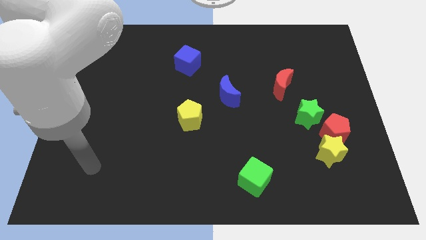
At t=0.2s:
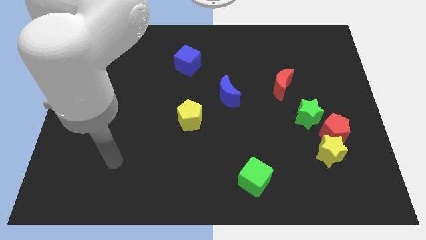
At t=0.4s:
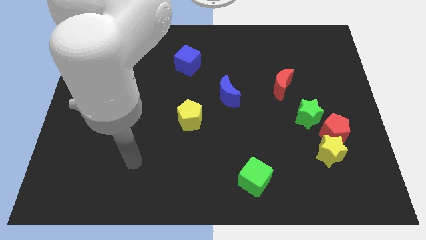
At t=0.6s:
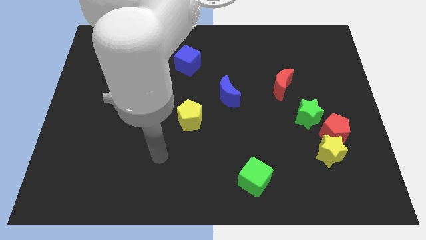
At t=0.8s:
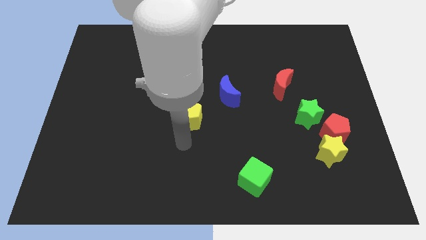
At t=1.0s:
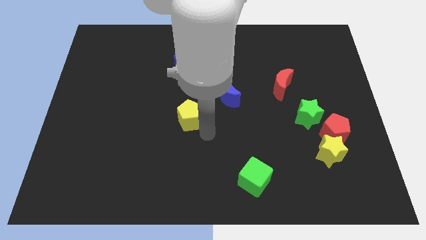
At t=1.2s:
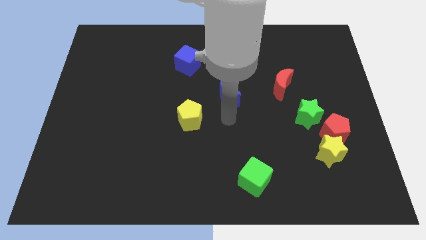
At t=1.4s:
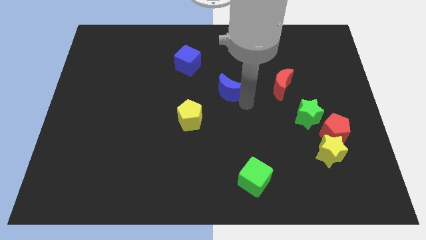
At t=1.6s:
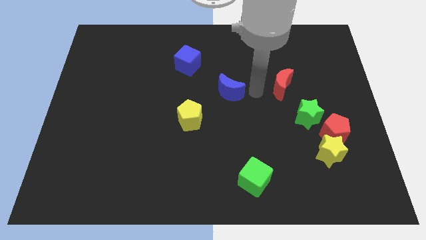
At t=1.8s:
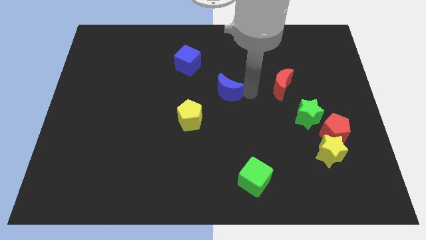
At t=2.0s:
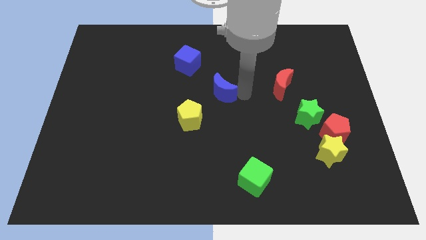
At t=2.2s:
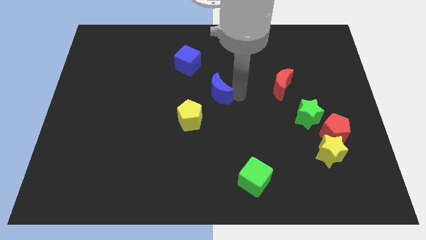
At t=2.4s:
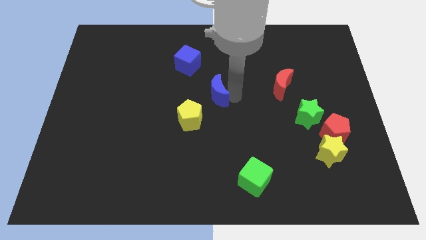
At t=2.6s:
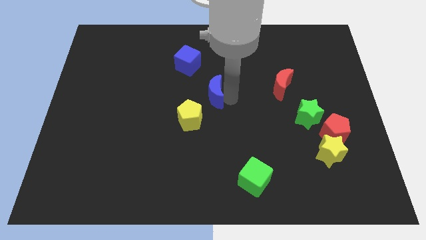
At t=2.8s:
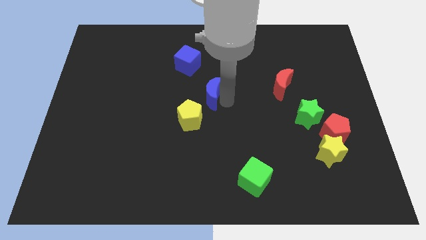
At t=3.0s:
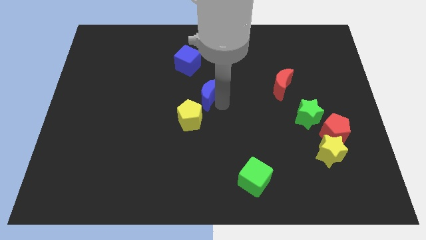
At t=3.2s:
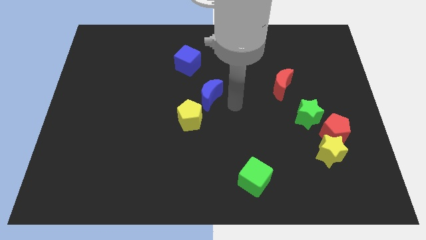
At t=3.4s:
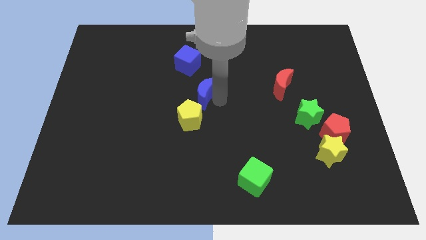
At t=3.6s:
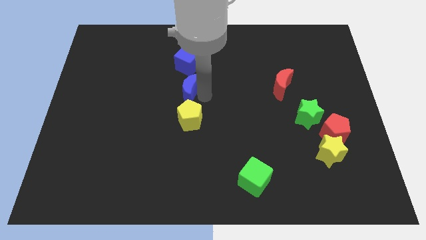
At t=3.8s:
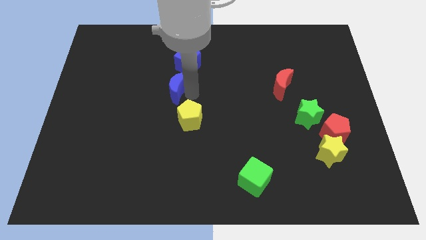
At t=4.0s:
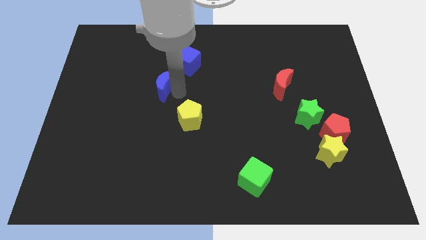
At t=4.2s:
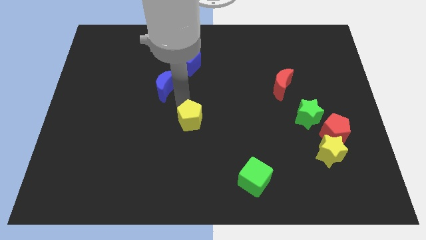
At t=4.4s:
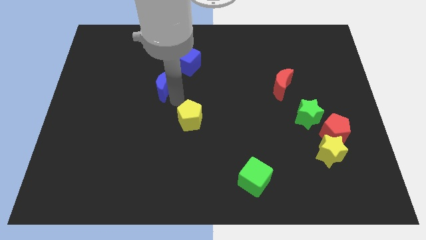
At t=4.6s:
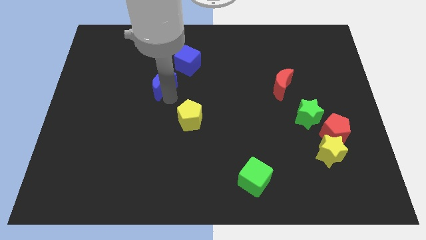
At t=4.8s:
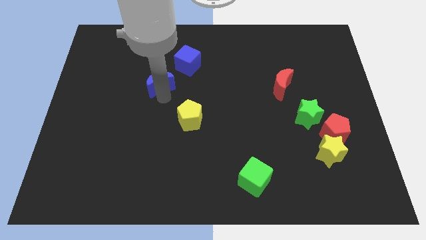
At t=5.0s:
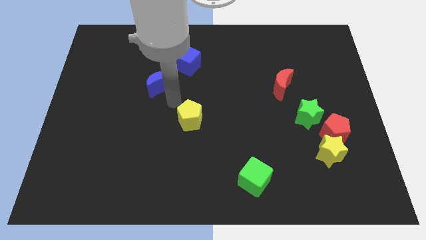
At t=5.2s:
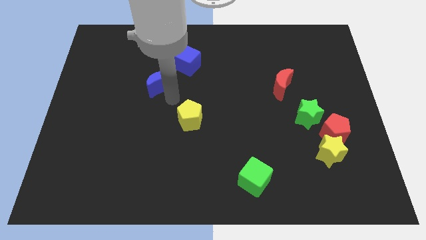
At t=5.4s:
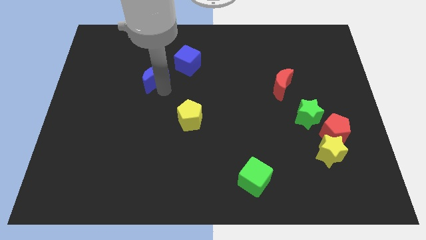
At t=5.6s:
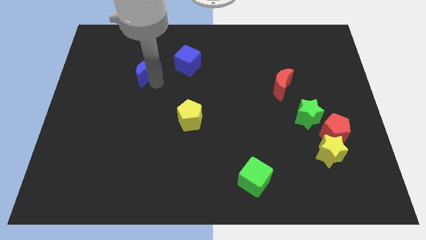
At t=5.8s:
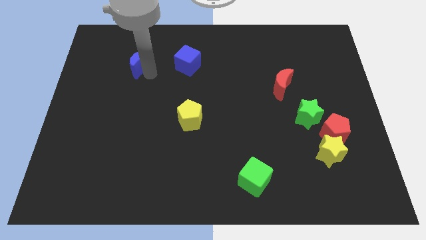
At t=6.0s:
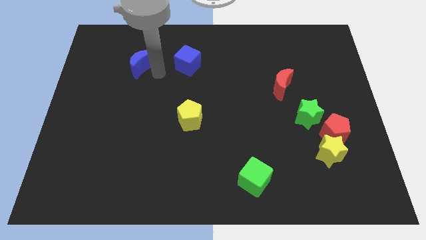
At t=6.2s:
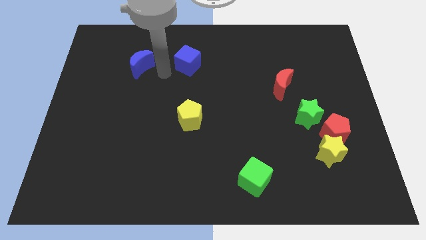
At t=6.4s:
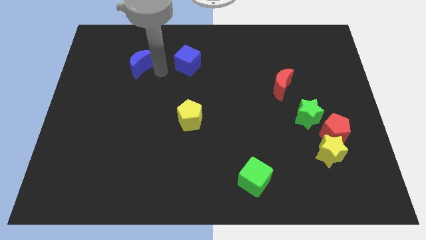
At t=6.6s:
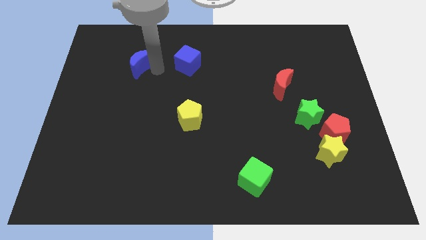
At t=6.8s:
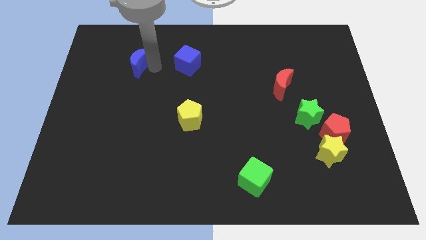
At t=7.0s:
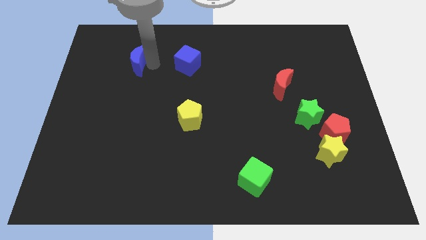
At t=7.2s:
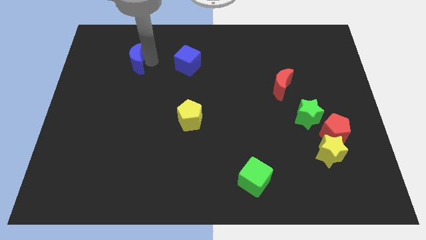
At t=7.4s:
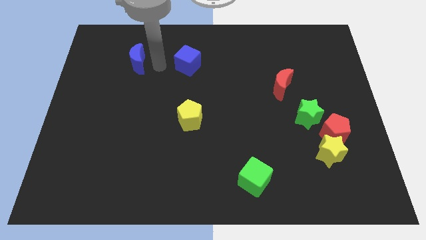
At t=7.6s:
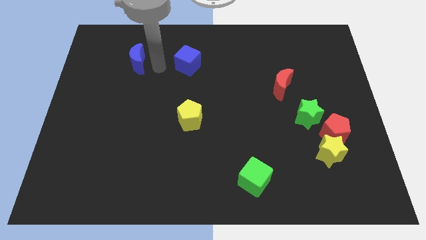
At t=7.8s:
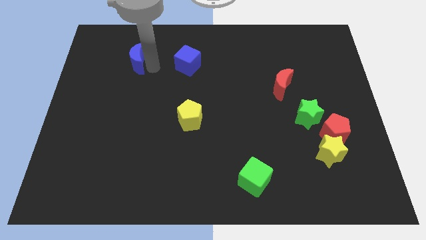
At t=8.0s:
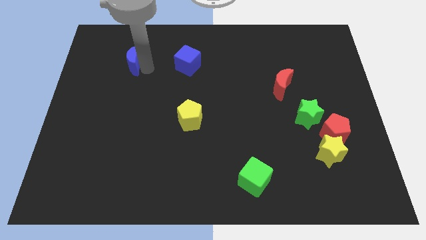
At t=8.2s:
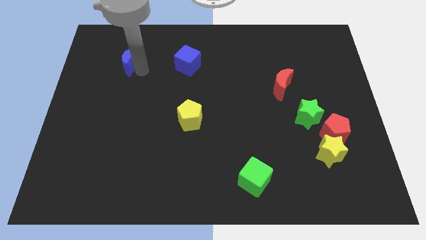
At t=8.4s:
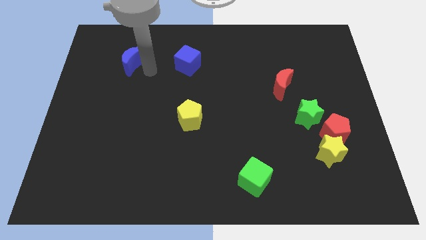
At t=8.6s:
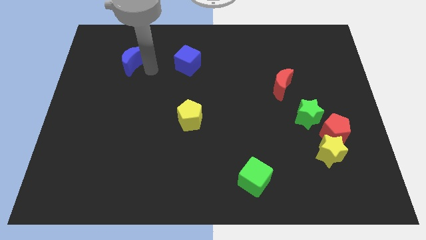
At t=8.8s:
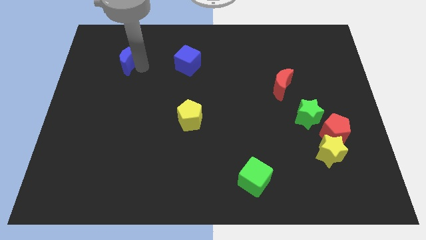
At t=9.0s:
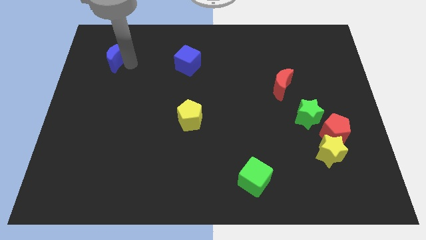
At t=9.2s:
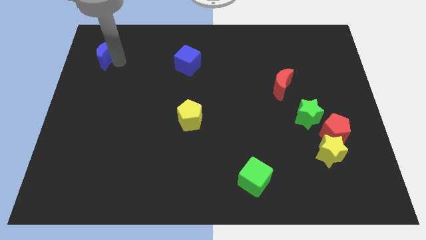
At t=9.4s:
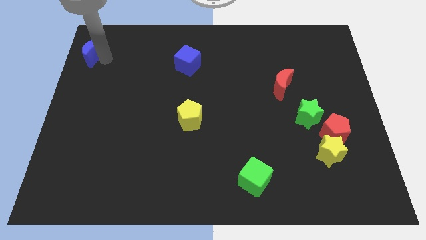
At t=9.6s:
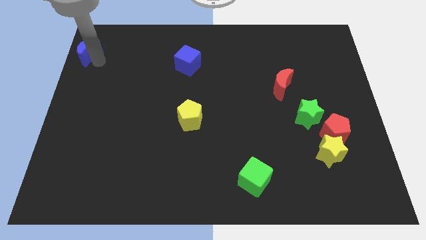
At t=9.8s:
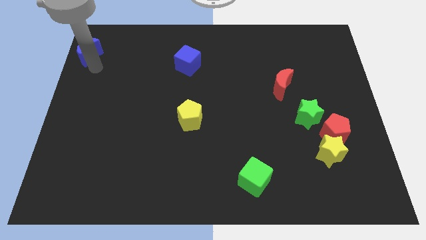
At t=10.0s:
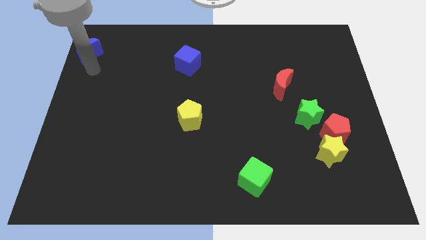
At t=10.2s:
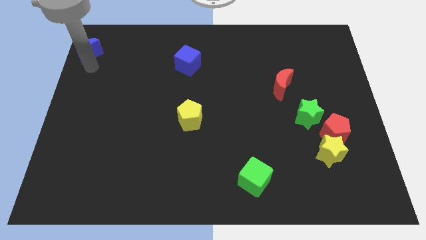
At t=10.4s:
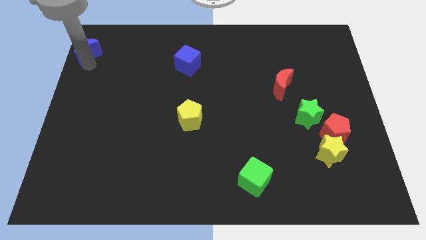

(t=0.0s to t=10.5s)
slide the blue moon to the top left corner

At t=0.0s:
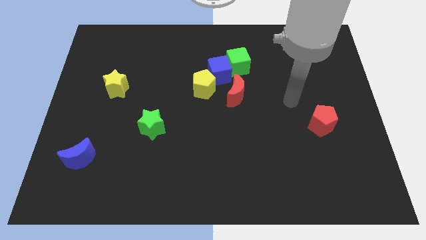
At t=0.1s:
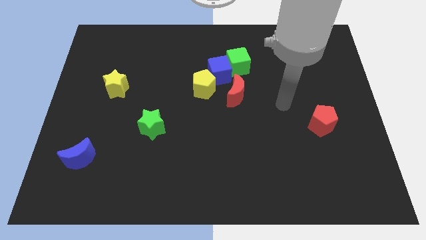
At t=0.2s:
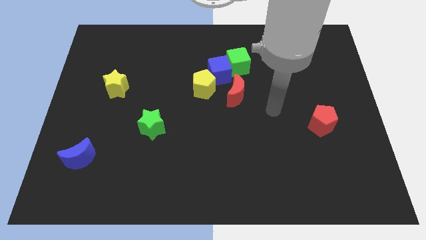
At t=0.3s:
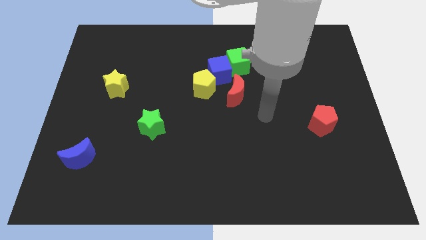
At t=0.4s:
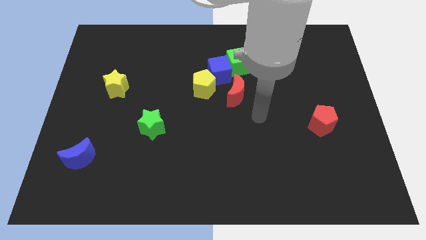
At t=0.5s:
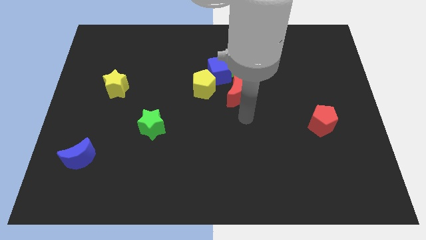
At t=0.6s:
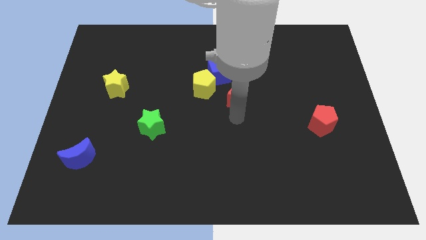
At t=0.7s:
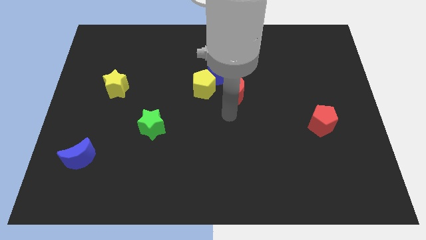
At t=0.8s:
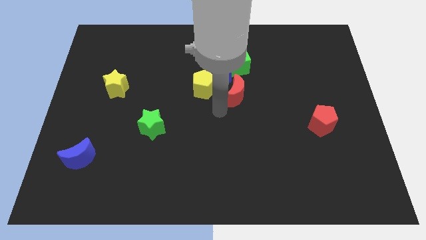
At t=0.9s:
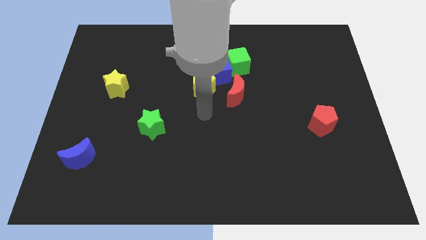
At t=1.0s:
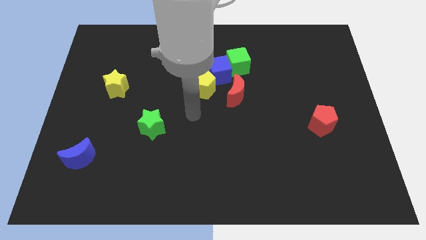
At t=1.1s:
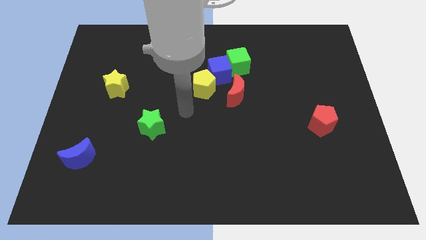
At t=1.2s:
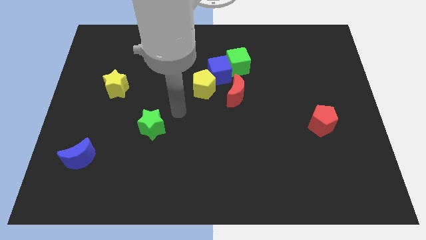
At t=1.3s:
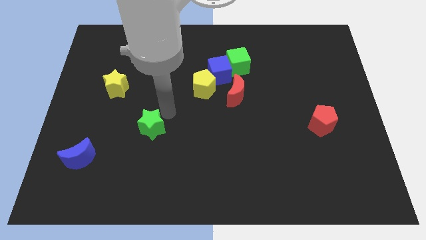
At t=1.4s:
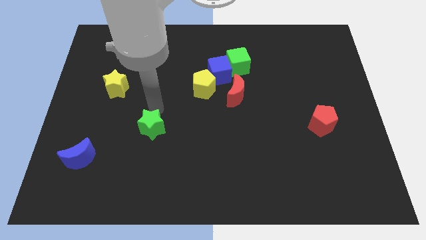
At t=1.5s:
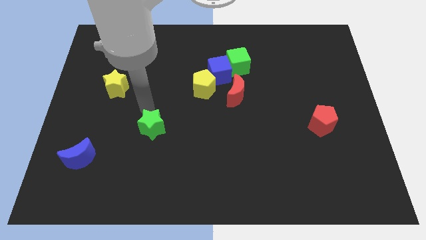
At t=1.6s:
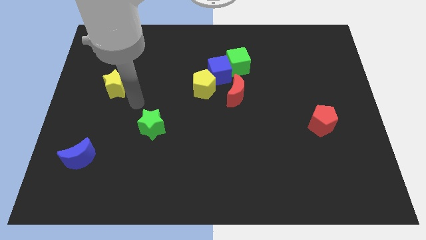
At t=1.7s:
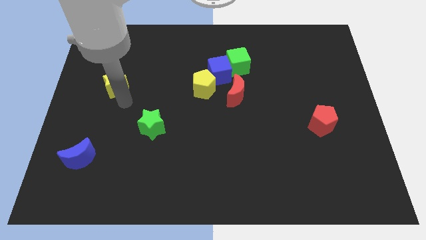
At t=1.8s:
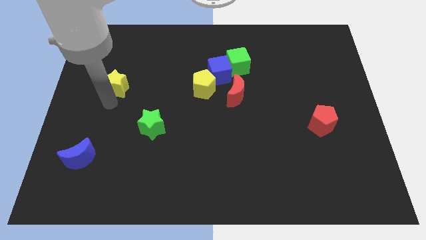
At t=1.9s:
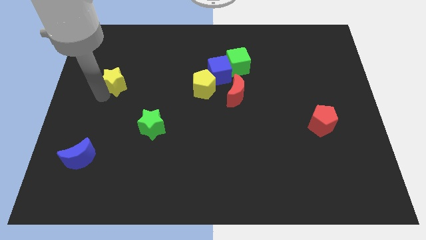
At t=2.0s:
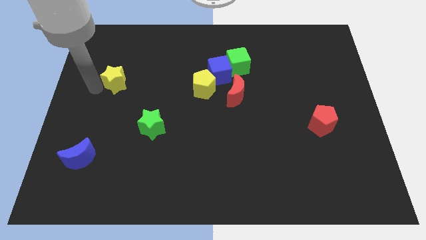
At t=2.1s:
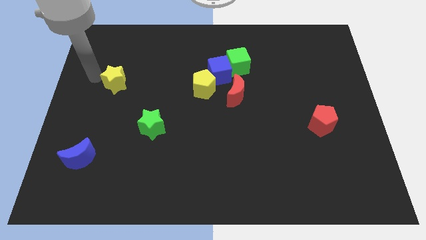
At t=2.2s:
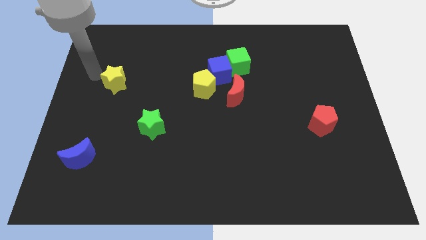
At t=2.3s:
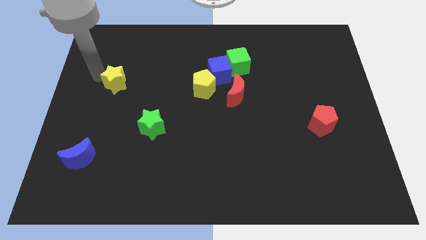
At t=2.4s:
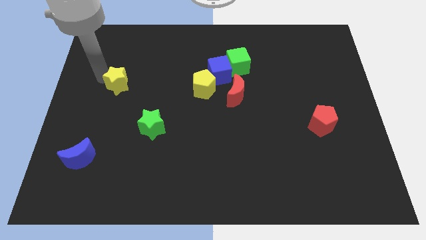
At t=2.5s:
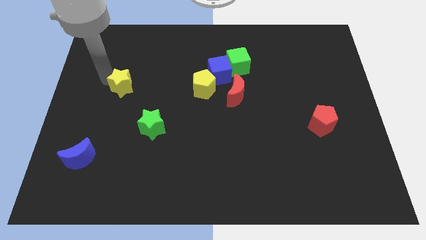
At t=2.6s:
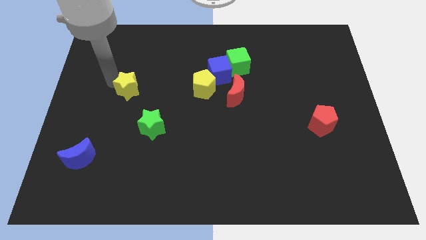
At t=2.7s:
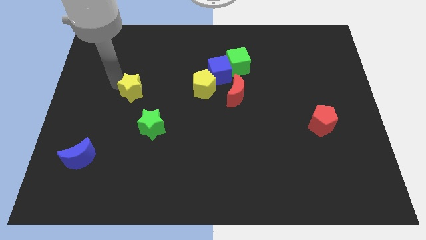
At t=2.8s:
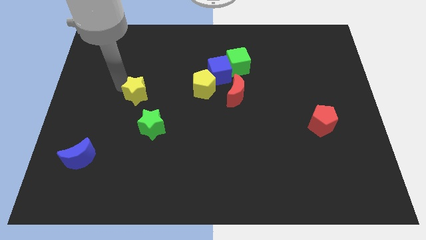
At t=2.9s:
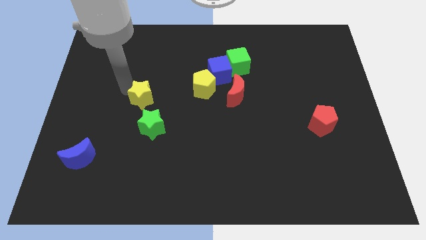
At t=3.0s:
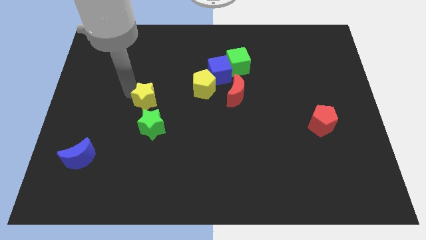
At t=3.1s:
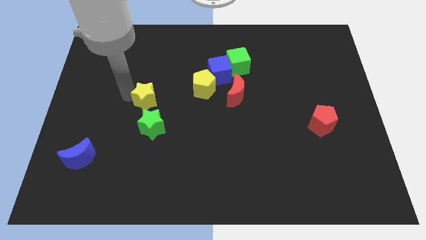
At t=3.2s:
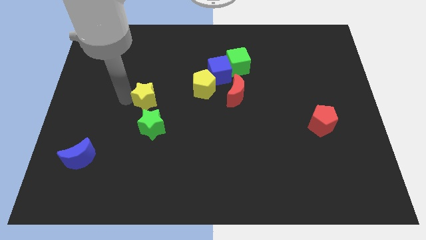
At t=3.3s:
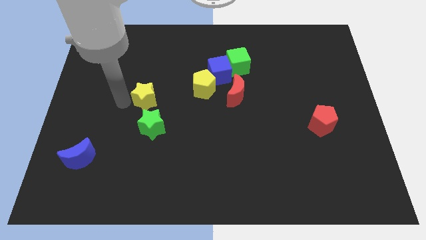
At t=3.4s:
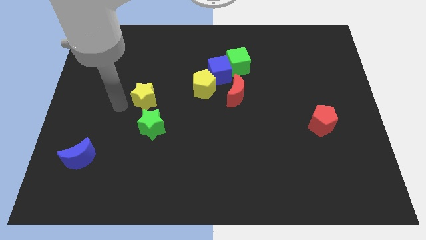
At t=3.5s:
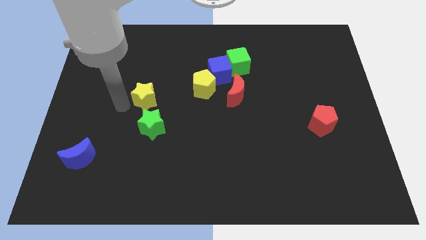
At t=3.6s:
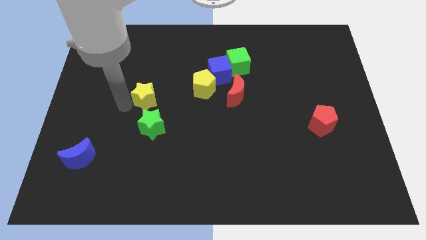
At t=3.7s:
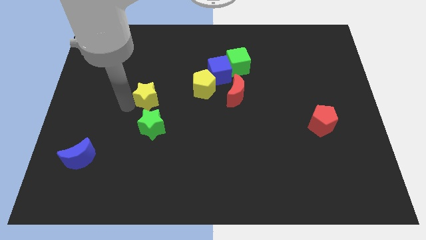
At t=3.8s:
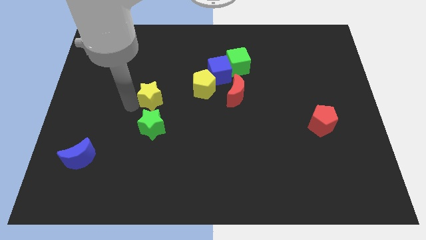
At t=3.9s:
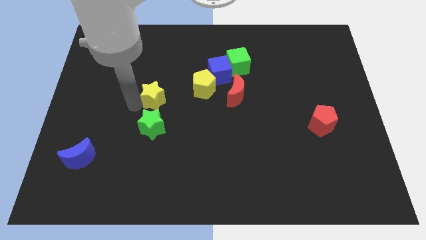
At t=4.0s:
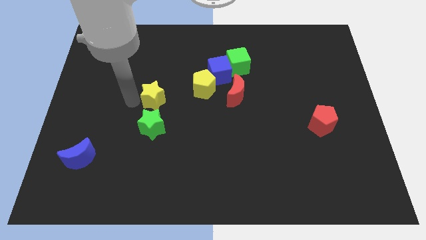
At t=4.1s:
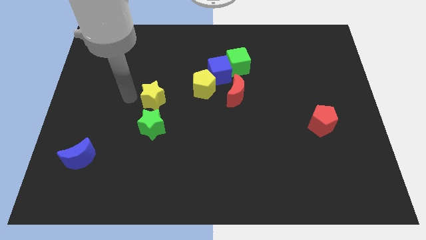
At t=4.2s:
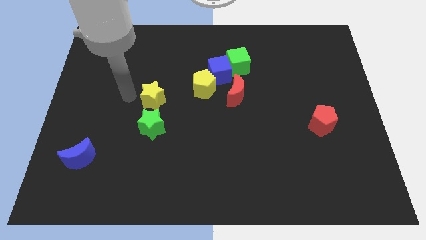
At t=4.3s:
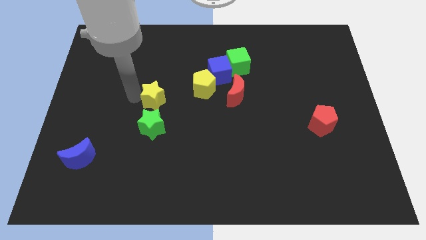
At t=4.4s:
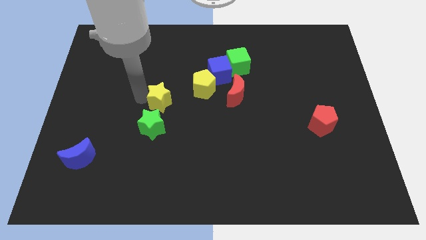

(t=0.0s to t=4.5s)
put the yellow star to the middle
